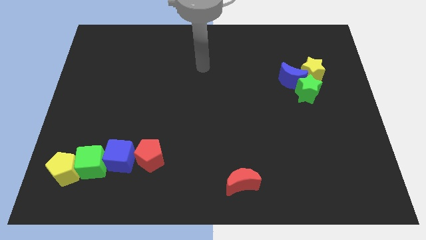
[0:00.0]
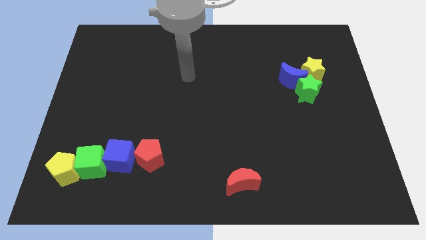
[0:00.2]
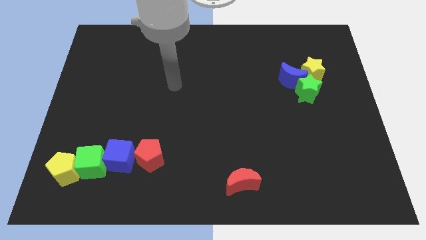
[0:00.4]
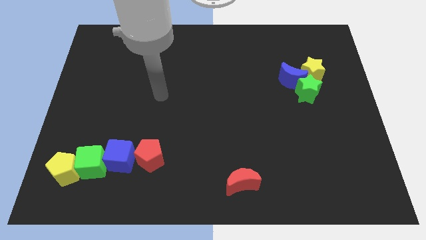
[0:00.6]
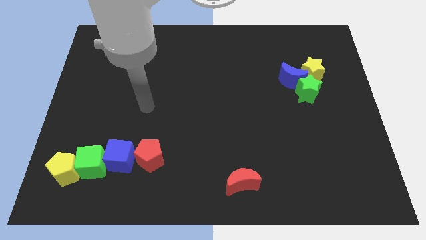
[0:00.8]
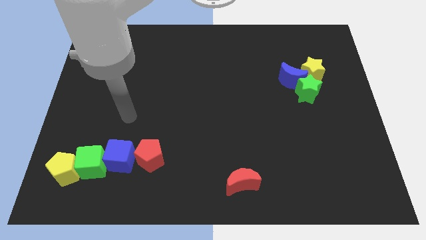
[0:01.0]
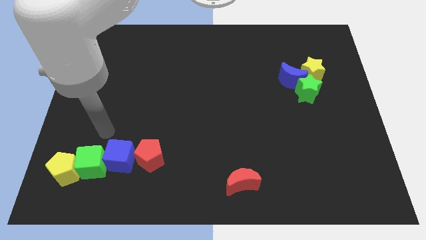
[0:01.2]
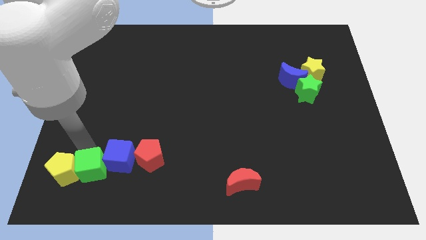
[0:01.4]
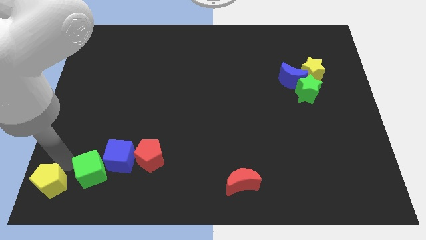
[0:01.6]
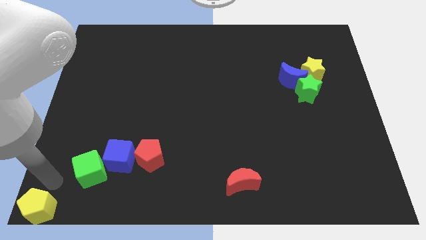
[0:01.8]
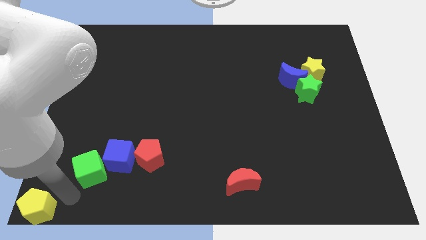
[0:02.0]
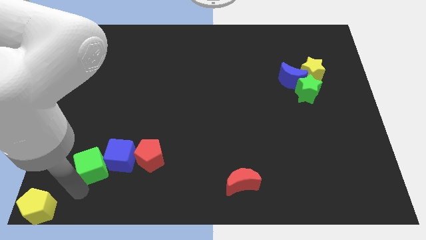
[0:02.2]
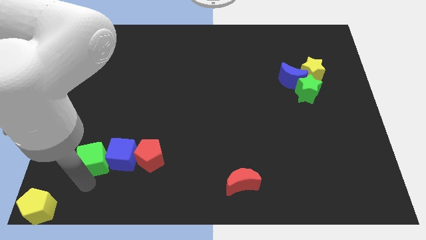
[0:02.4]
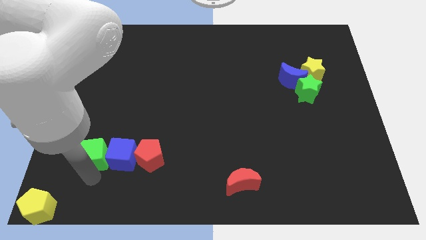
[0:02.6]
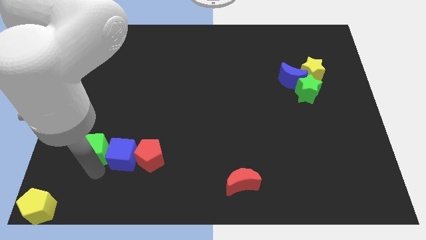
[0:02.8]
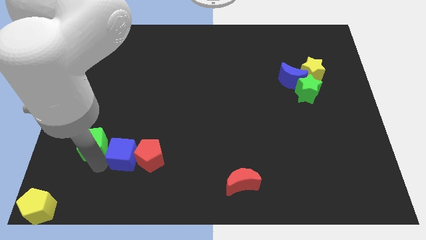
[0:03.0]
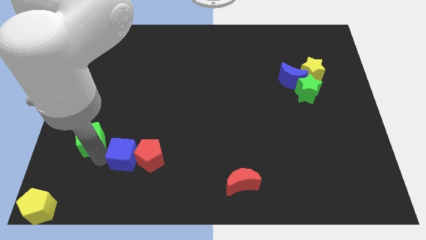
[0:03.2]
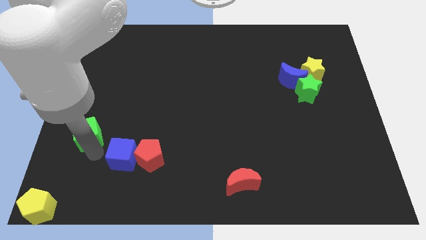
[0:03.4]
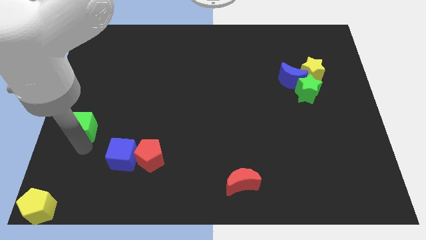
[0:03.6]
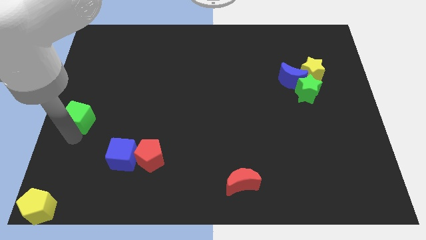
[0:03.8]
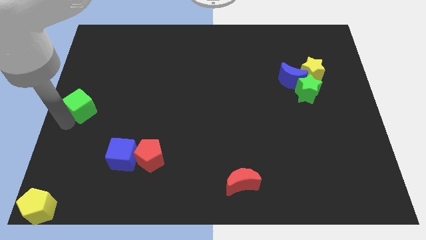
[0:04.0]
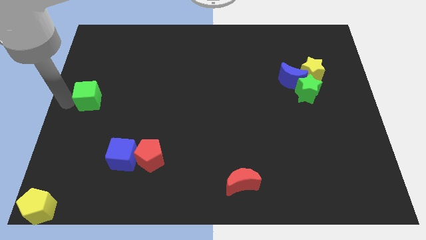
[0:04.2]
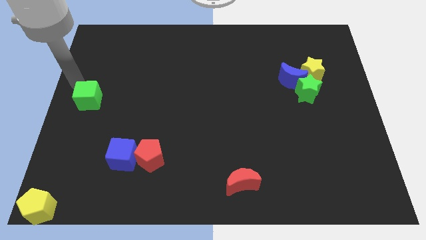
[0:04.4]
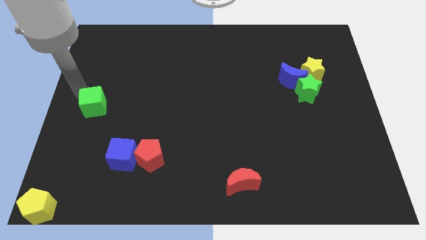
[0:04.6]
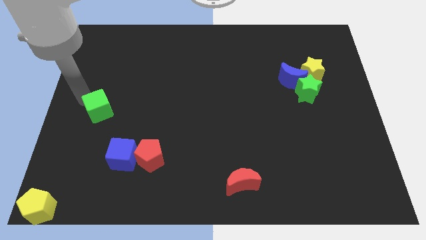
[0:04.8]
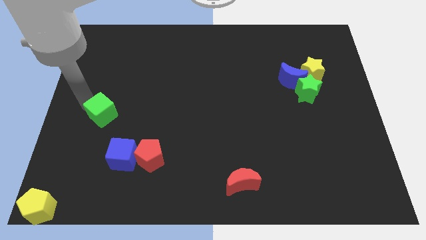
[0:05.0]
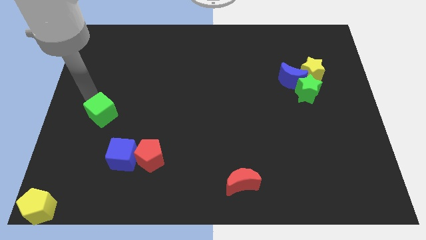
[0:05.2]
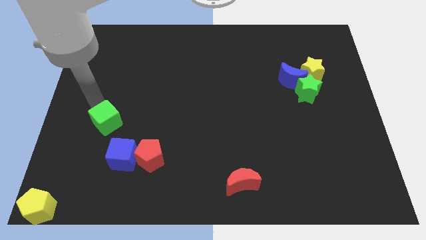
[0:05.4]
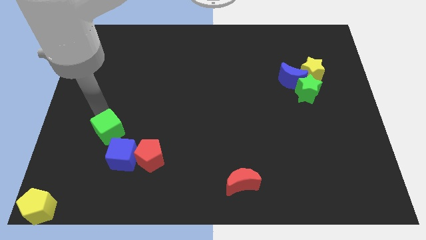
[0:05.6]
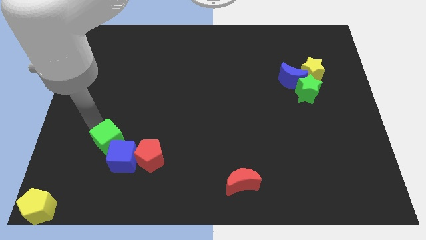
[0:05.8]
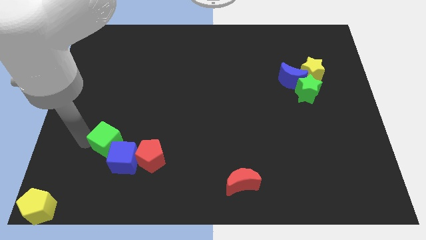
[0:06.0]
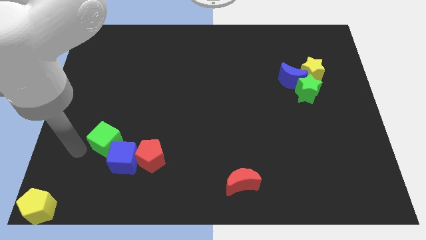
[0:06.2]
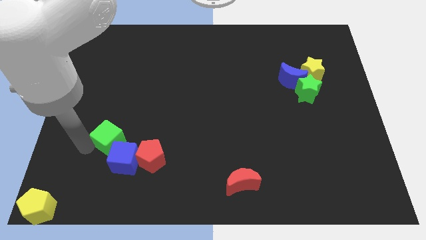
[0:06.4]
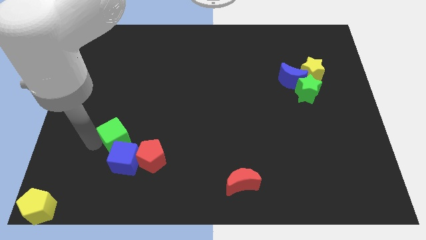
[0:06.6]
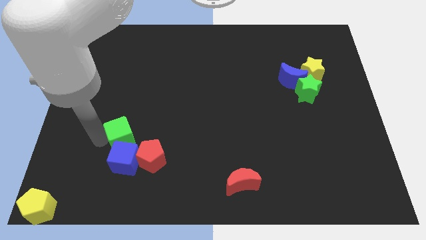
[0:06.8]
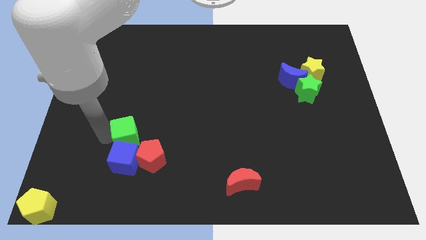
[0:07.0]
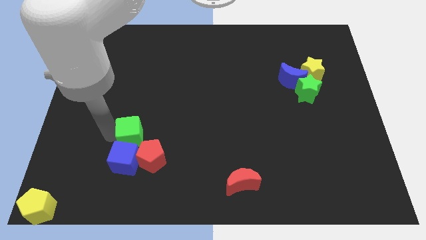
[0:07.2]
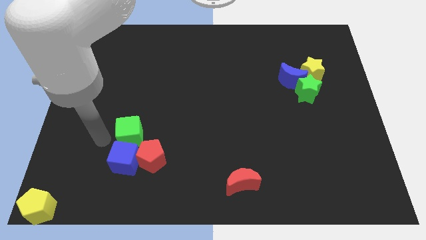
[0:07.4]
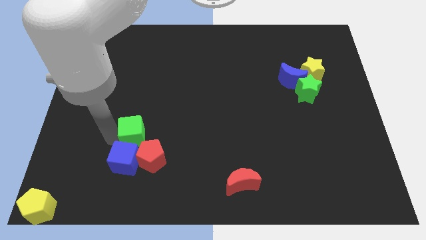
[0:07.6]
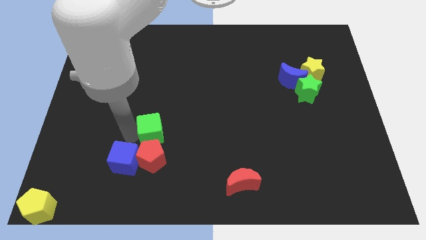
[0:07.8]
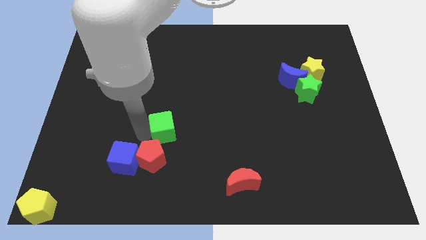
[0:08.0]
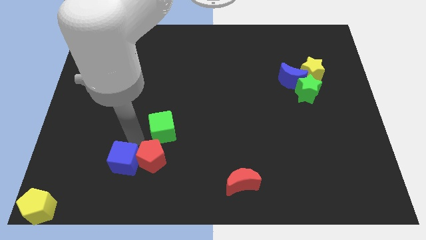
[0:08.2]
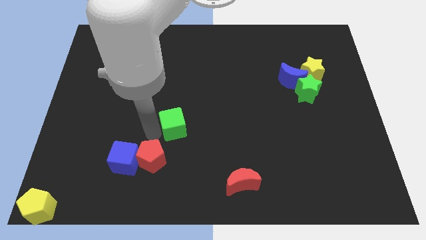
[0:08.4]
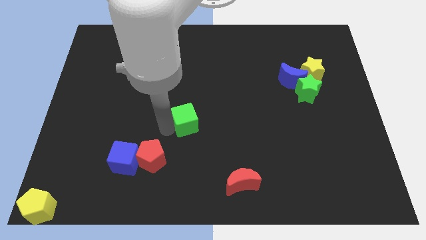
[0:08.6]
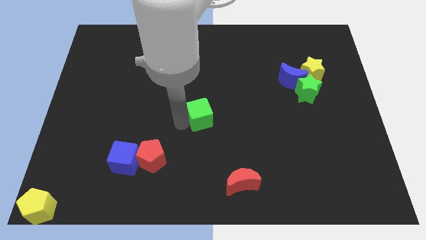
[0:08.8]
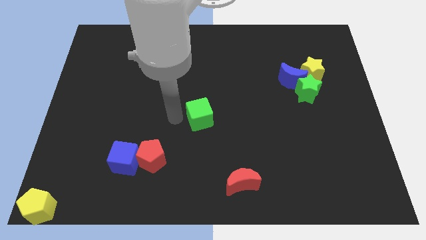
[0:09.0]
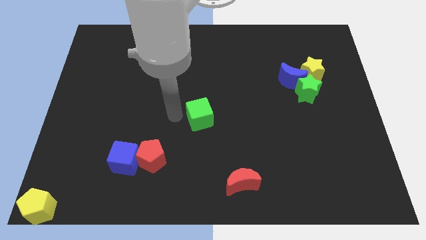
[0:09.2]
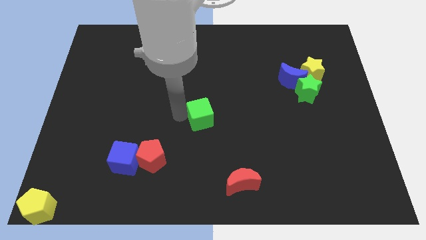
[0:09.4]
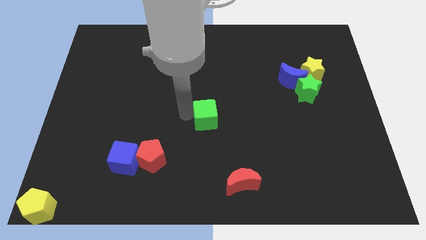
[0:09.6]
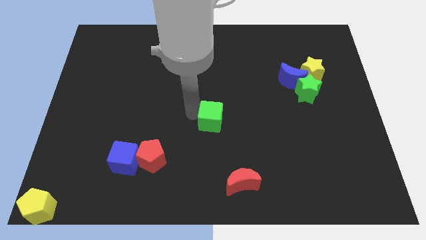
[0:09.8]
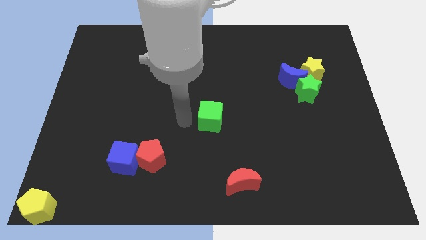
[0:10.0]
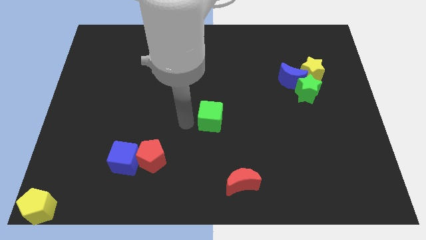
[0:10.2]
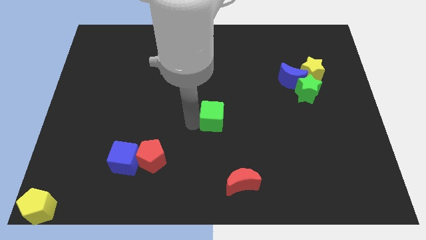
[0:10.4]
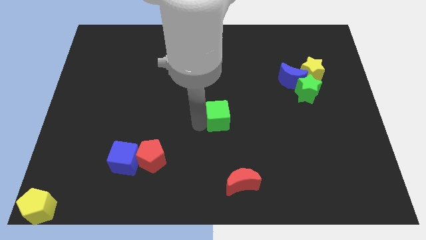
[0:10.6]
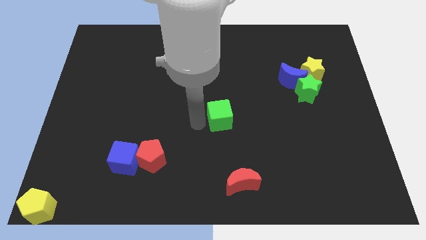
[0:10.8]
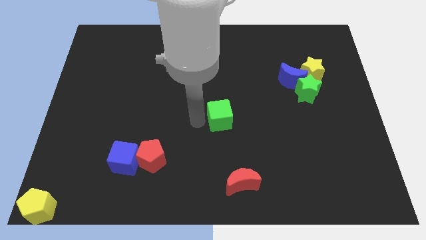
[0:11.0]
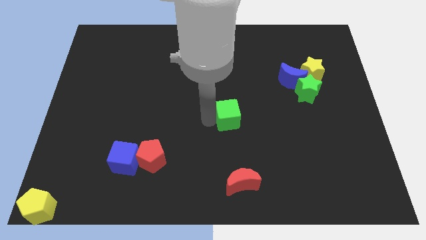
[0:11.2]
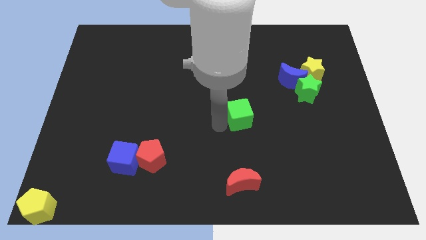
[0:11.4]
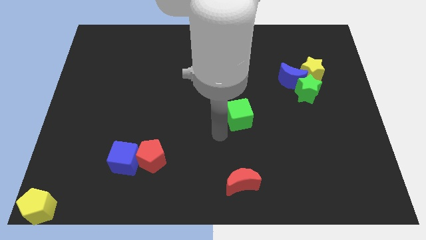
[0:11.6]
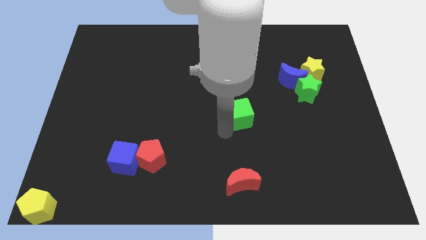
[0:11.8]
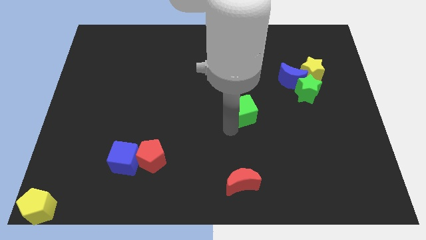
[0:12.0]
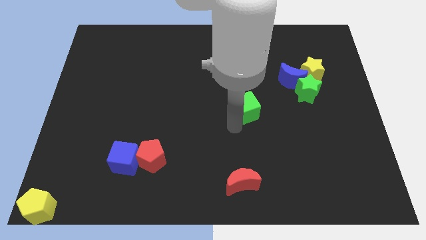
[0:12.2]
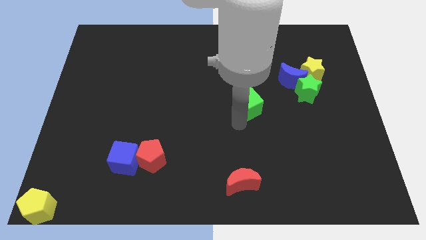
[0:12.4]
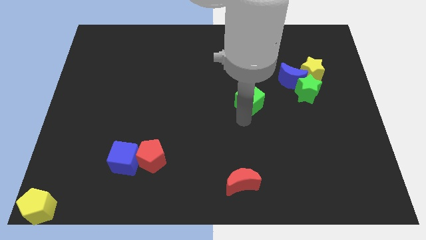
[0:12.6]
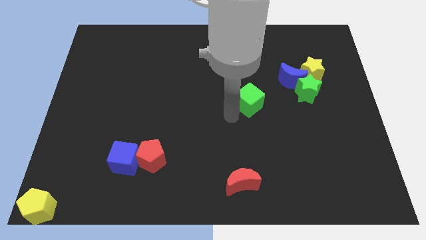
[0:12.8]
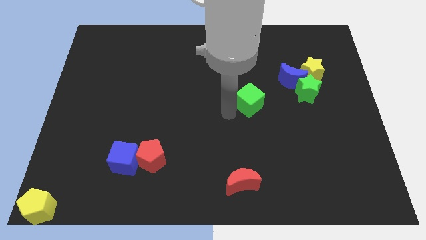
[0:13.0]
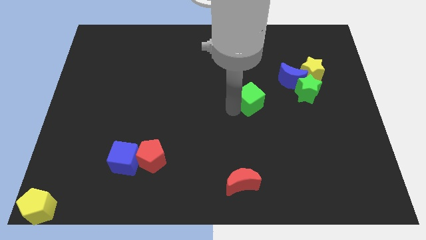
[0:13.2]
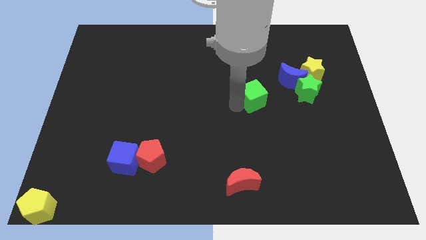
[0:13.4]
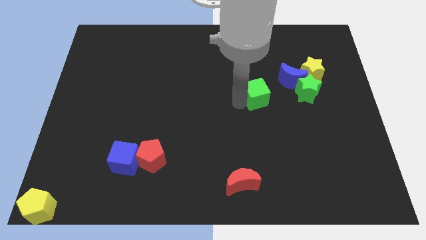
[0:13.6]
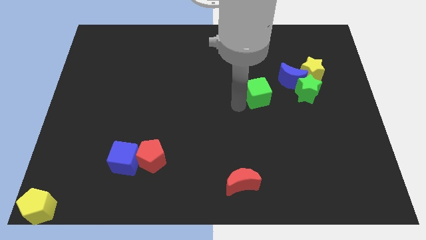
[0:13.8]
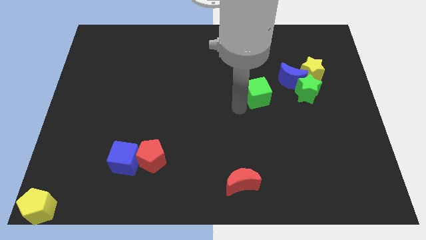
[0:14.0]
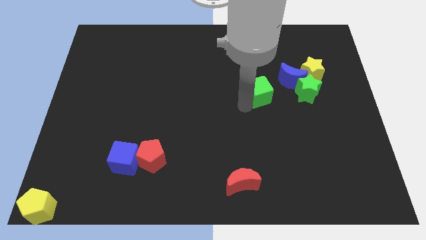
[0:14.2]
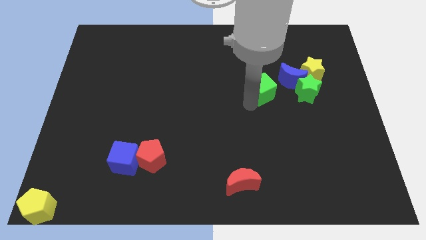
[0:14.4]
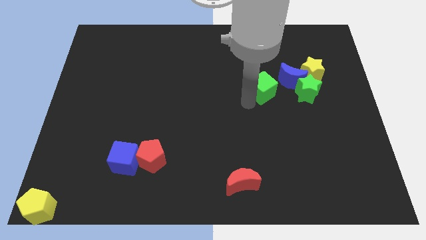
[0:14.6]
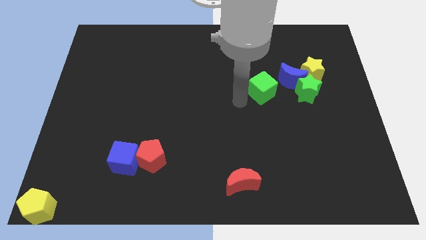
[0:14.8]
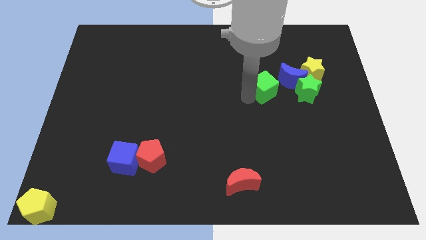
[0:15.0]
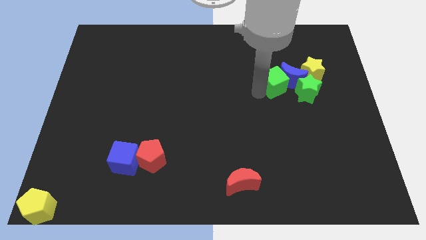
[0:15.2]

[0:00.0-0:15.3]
put the green cube towards the blue moon
